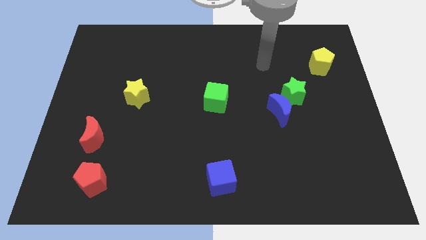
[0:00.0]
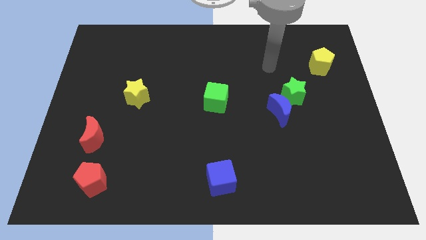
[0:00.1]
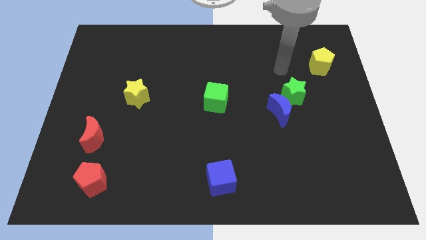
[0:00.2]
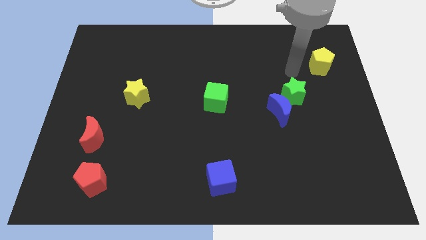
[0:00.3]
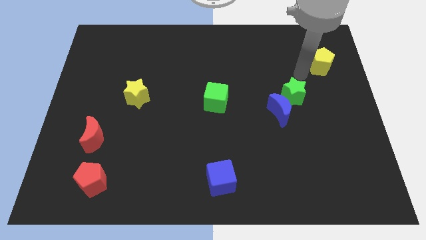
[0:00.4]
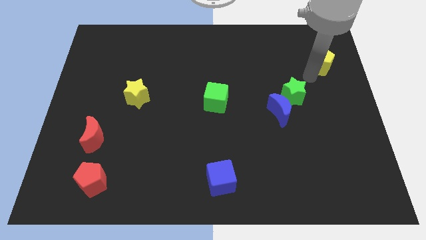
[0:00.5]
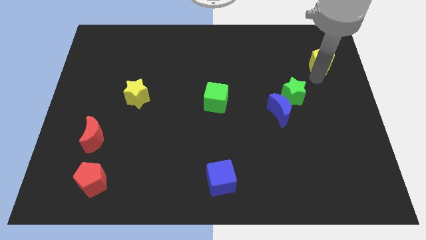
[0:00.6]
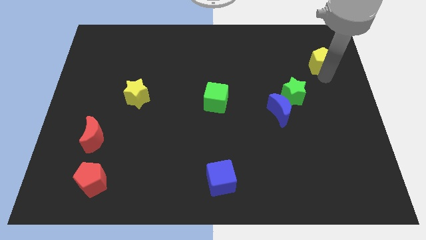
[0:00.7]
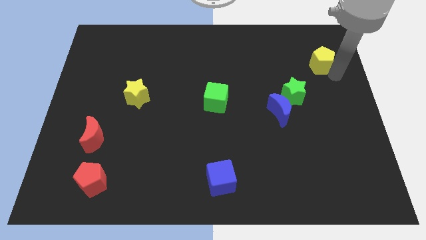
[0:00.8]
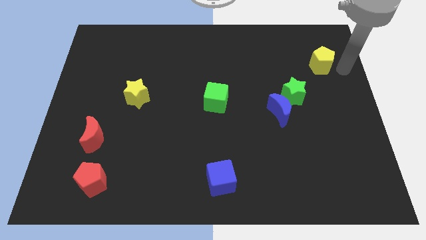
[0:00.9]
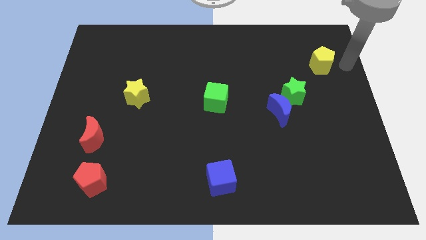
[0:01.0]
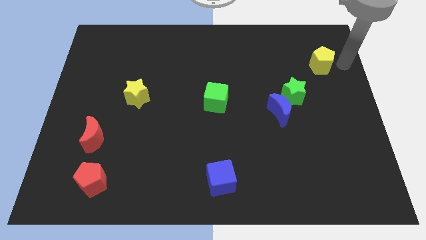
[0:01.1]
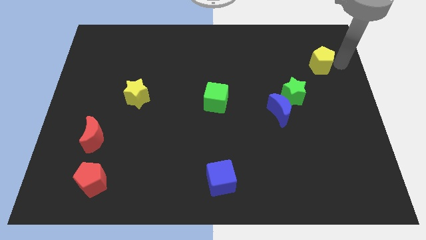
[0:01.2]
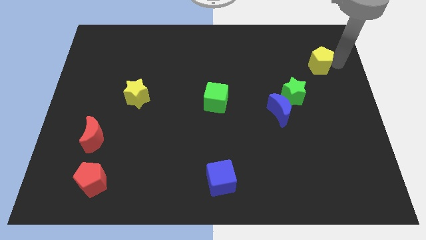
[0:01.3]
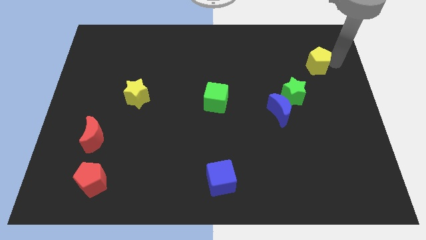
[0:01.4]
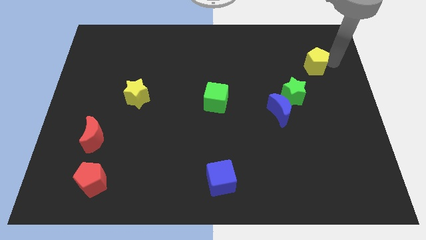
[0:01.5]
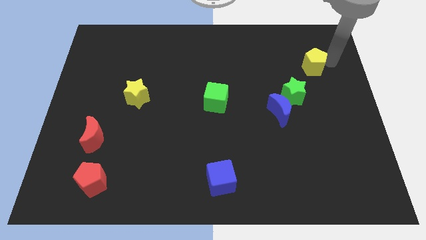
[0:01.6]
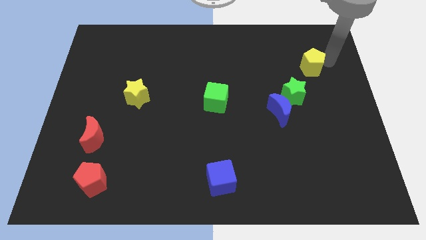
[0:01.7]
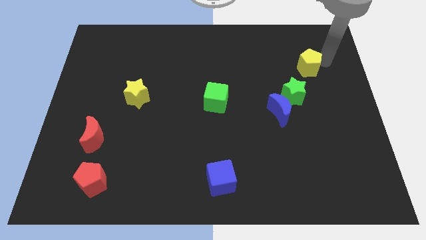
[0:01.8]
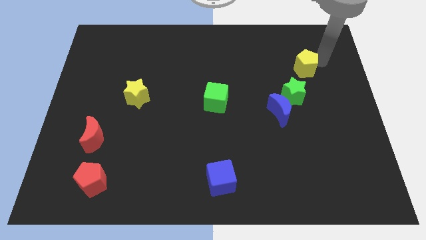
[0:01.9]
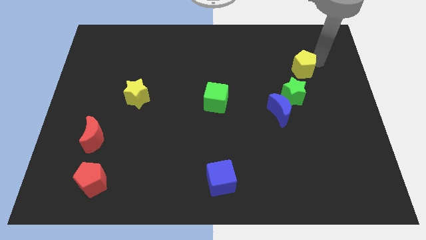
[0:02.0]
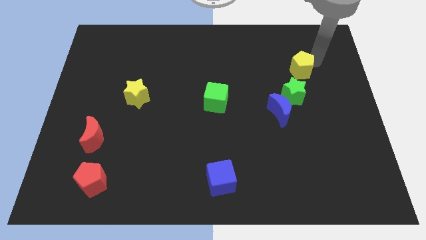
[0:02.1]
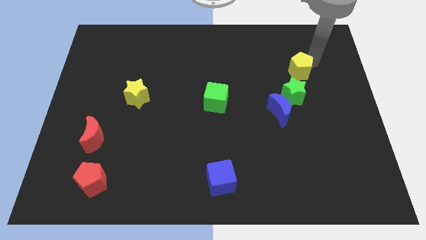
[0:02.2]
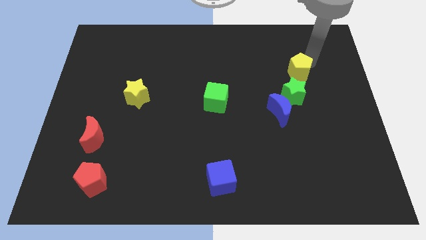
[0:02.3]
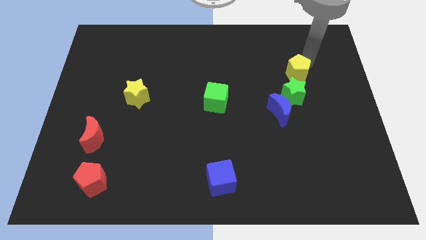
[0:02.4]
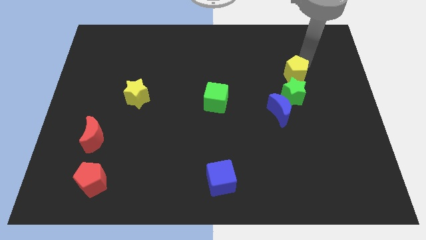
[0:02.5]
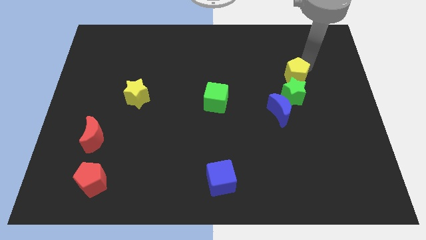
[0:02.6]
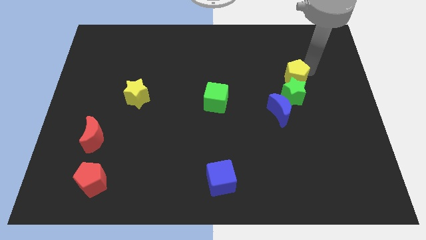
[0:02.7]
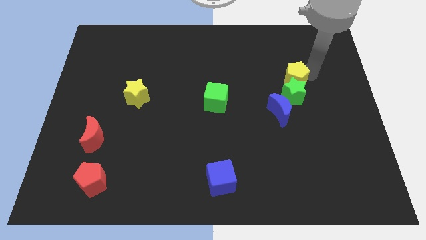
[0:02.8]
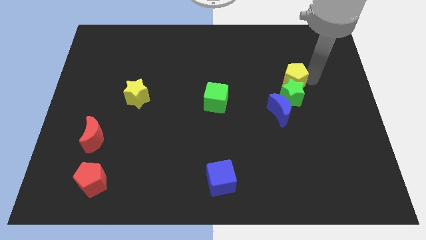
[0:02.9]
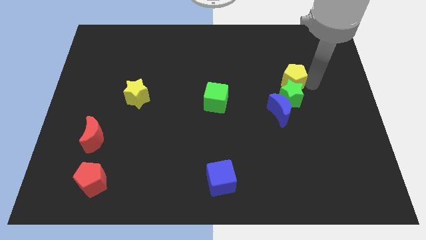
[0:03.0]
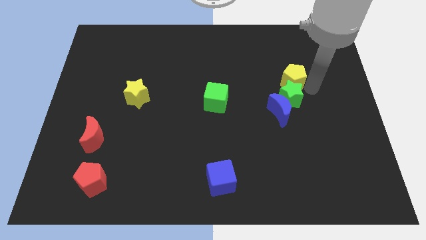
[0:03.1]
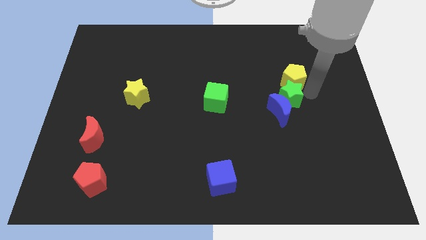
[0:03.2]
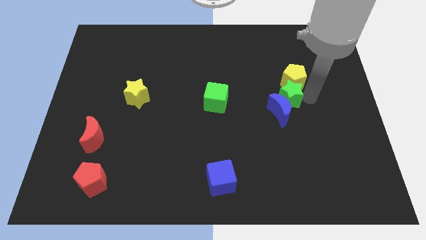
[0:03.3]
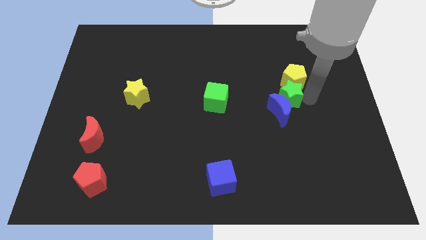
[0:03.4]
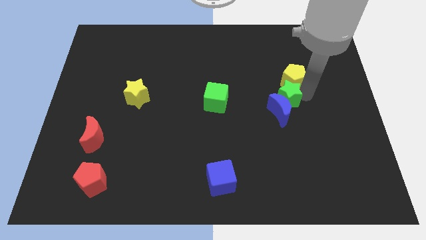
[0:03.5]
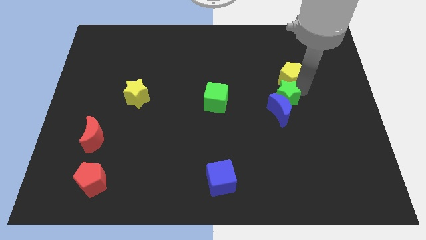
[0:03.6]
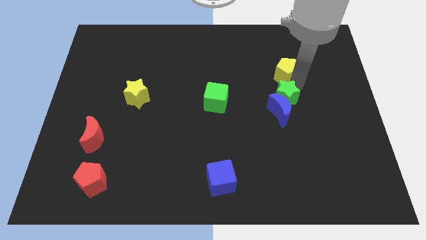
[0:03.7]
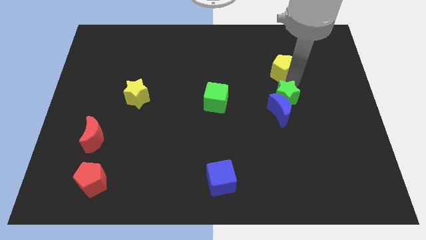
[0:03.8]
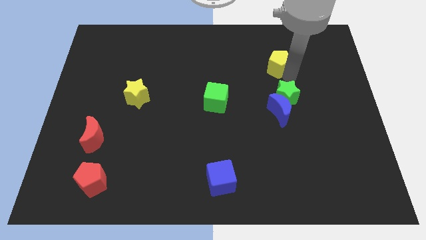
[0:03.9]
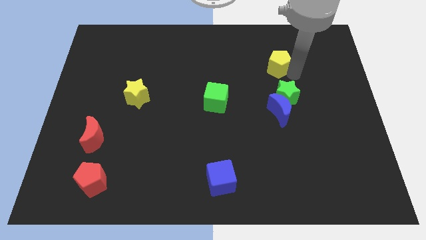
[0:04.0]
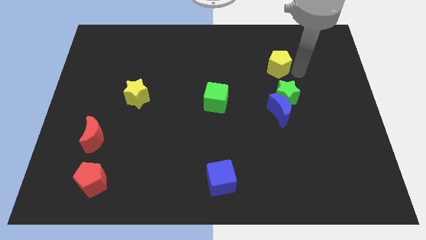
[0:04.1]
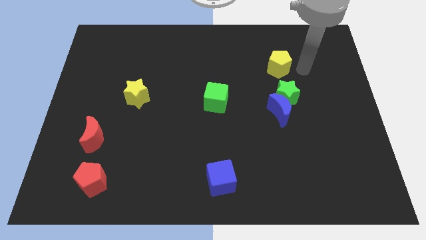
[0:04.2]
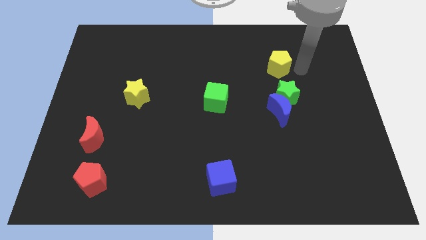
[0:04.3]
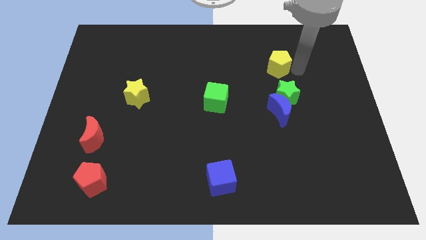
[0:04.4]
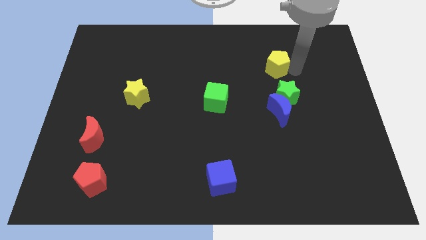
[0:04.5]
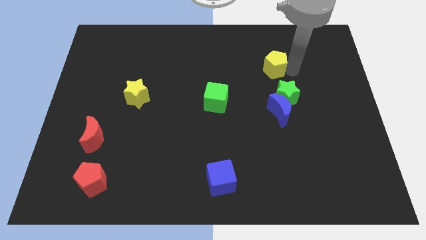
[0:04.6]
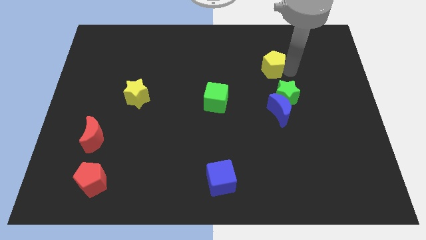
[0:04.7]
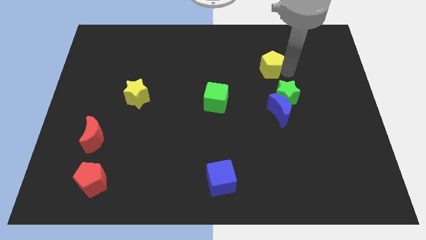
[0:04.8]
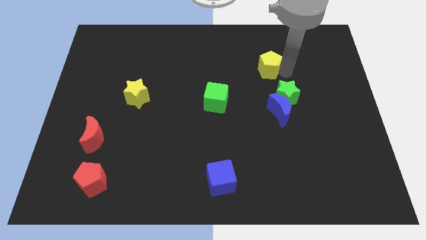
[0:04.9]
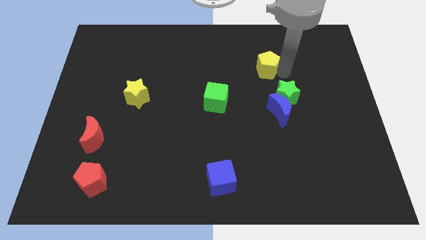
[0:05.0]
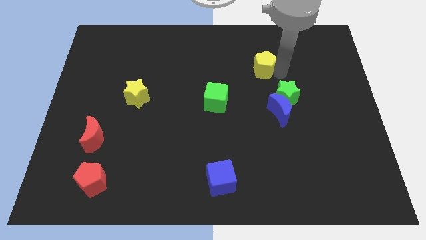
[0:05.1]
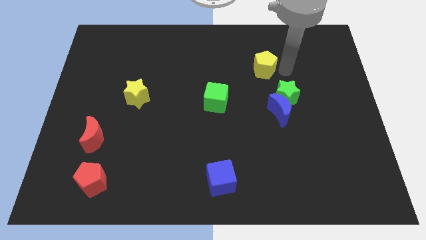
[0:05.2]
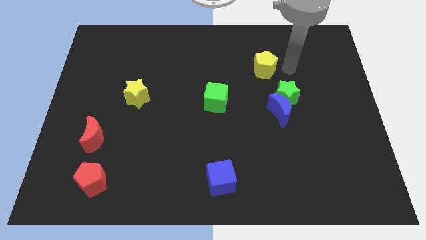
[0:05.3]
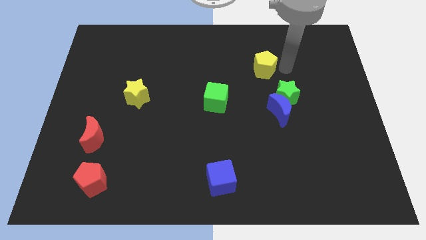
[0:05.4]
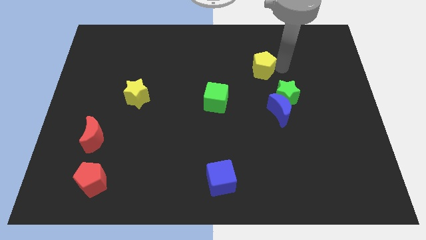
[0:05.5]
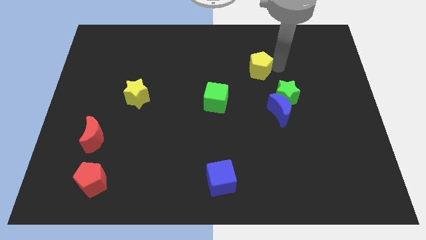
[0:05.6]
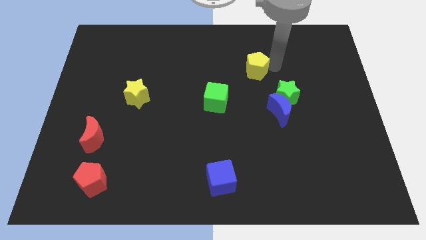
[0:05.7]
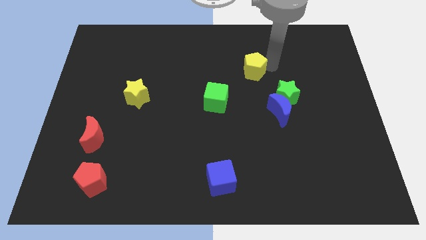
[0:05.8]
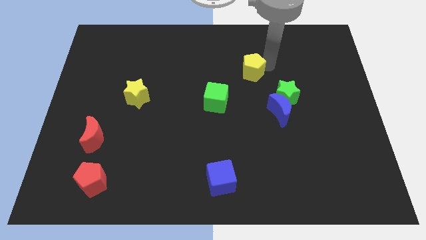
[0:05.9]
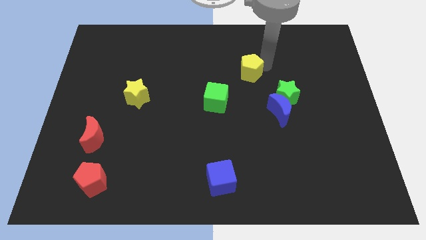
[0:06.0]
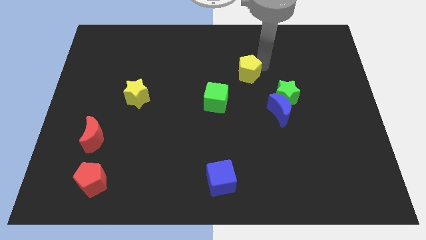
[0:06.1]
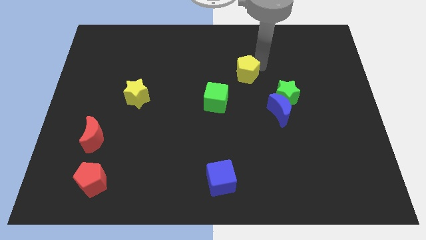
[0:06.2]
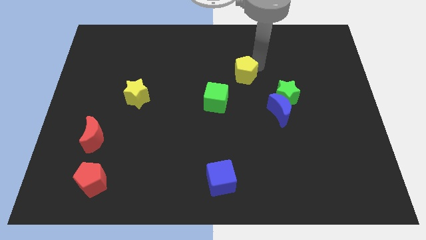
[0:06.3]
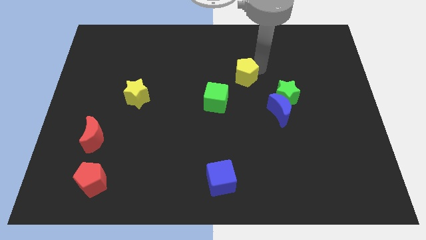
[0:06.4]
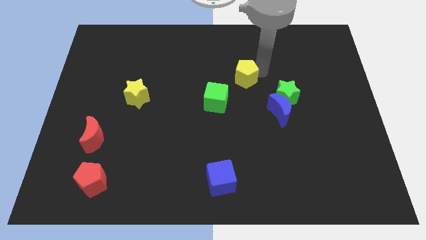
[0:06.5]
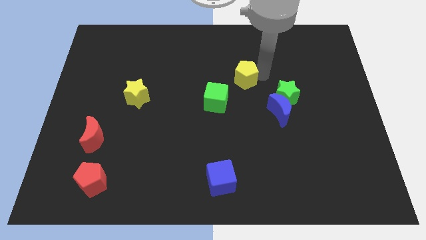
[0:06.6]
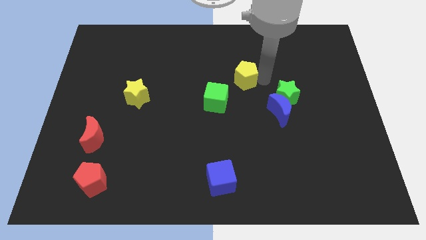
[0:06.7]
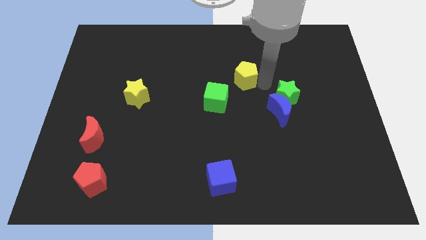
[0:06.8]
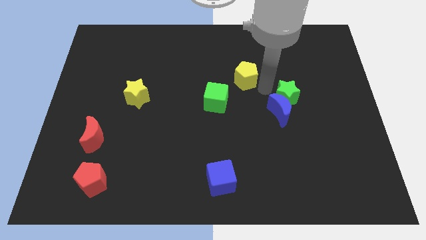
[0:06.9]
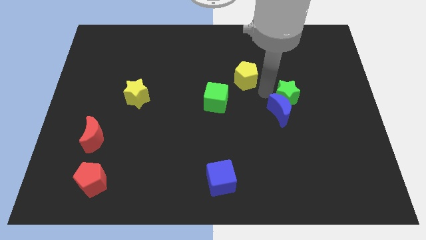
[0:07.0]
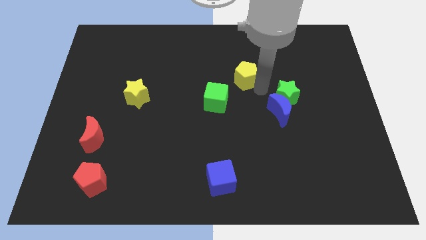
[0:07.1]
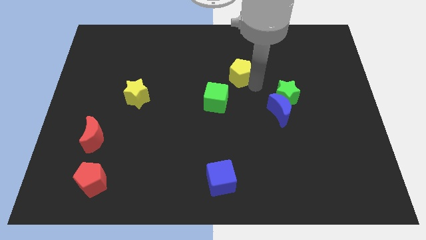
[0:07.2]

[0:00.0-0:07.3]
push the yellow pentagon to the left

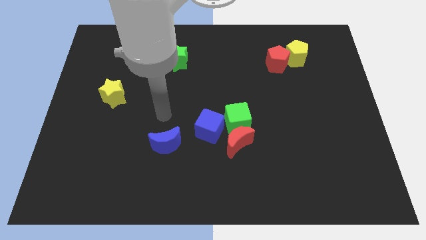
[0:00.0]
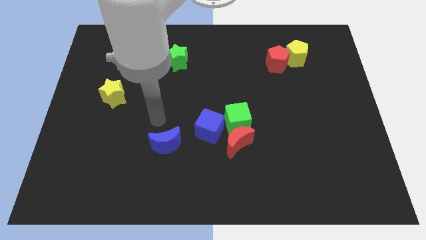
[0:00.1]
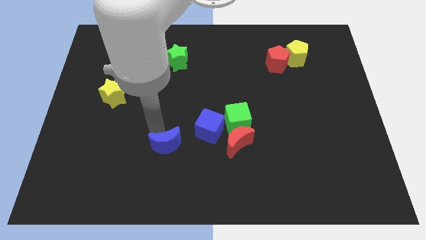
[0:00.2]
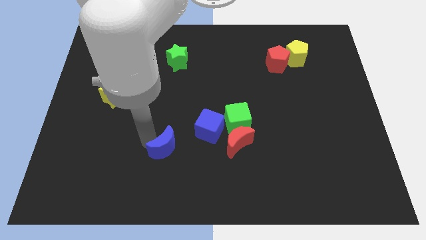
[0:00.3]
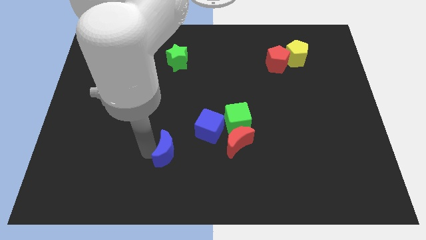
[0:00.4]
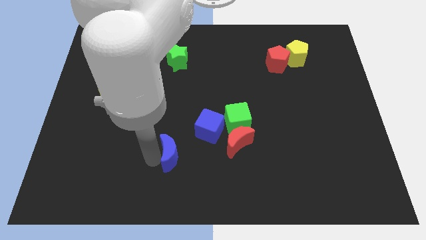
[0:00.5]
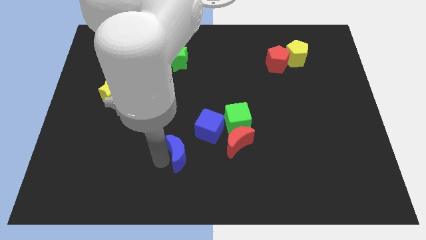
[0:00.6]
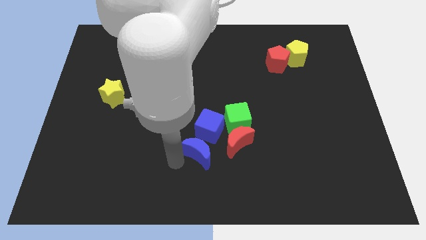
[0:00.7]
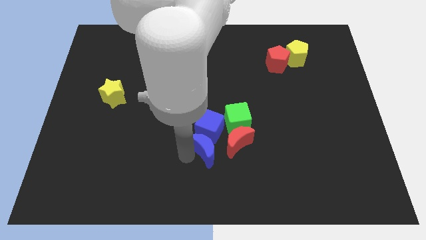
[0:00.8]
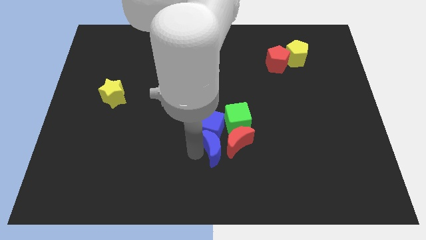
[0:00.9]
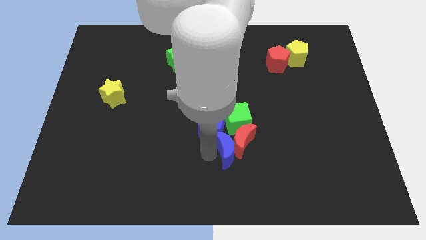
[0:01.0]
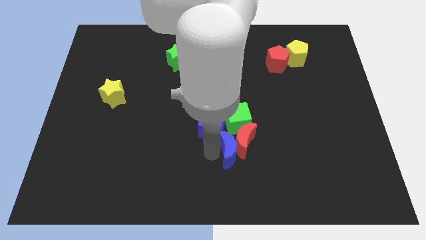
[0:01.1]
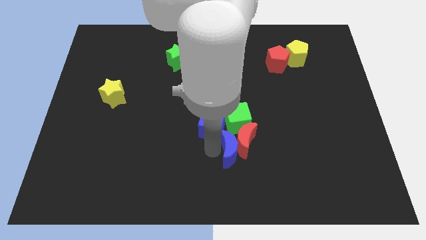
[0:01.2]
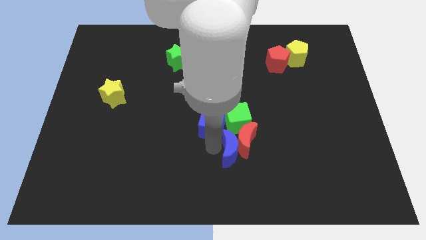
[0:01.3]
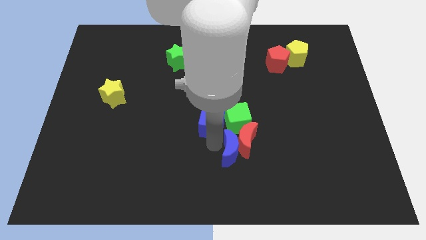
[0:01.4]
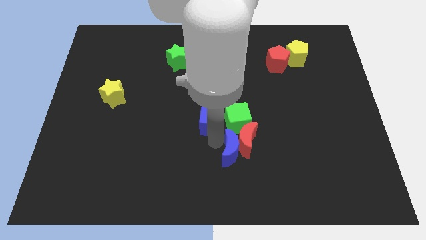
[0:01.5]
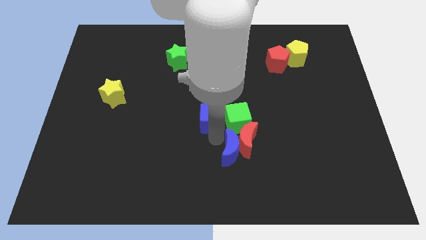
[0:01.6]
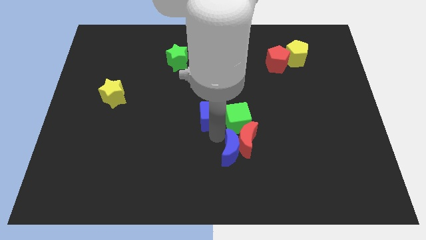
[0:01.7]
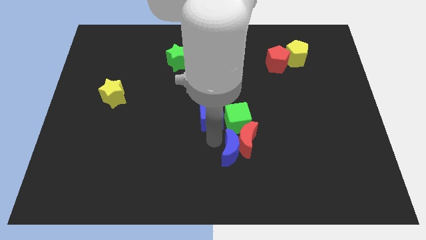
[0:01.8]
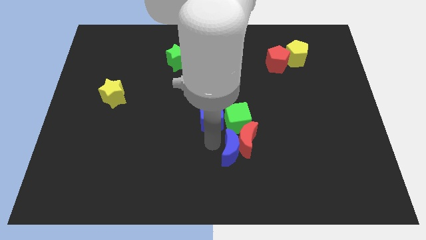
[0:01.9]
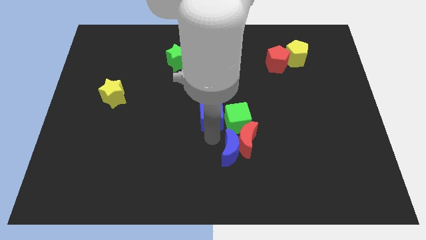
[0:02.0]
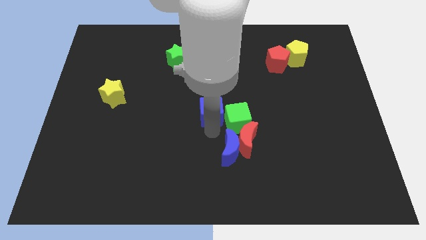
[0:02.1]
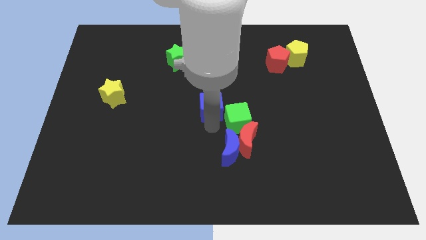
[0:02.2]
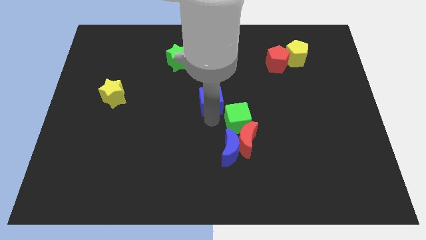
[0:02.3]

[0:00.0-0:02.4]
push the blue cube upwards a little
